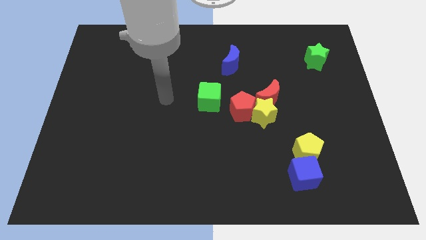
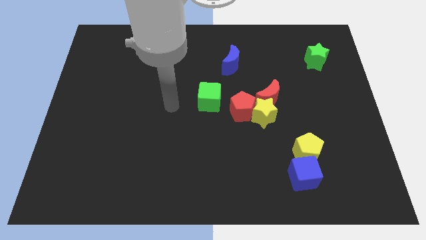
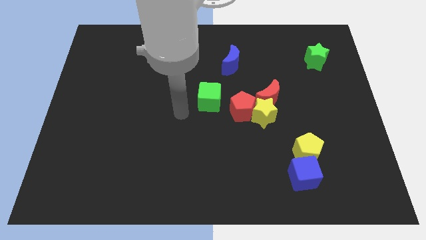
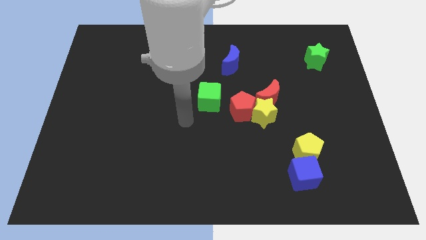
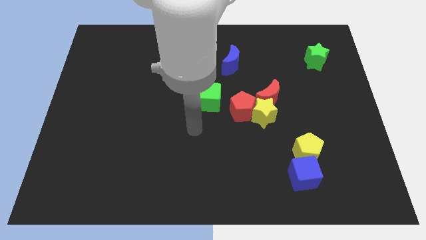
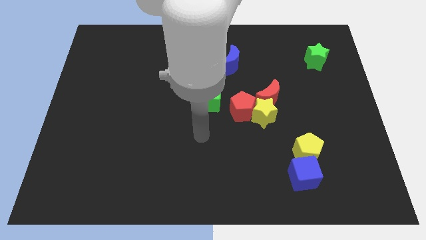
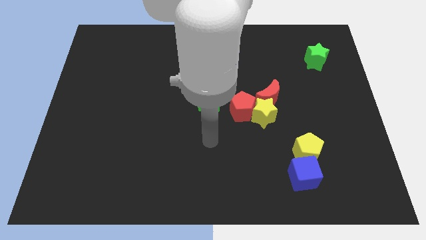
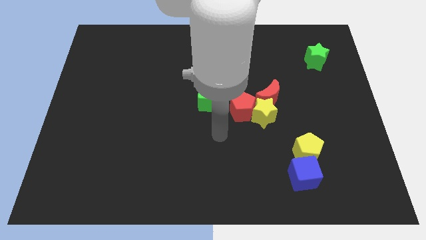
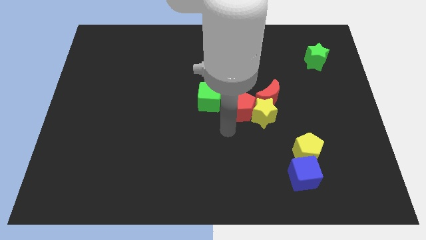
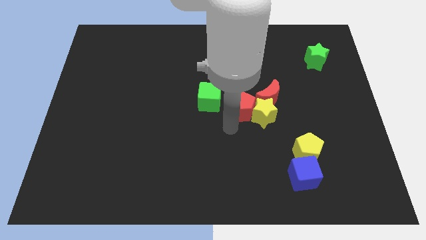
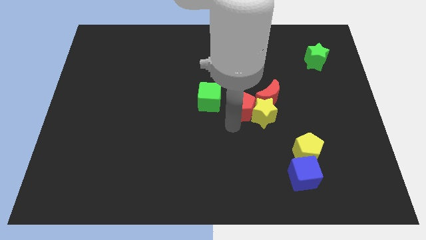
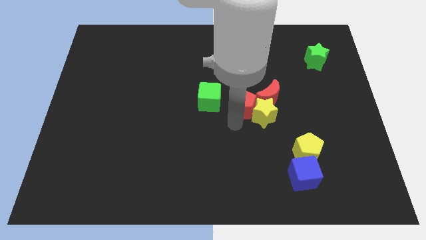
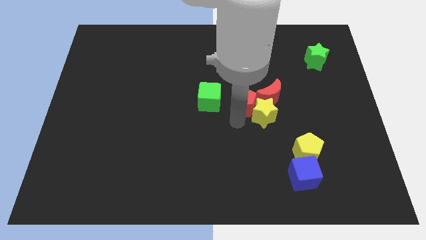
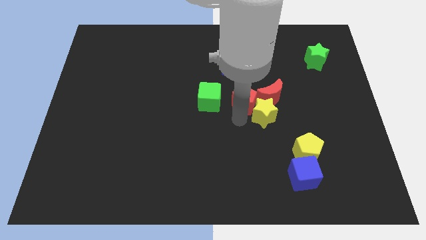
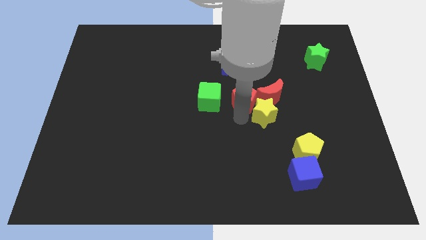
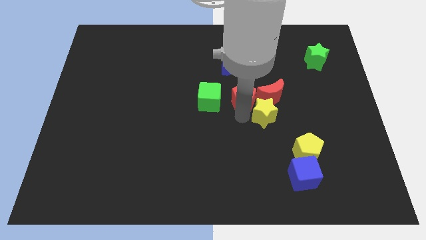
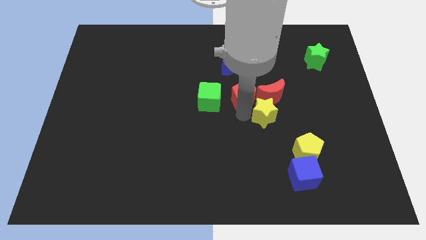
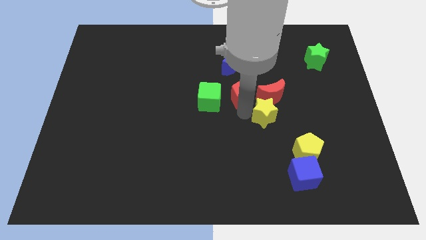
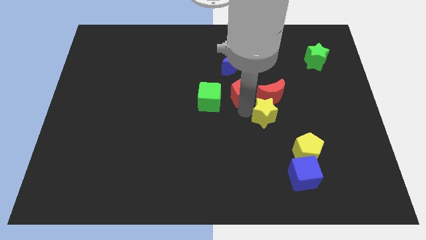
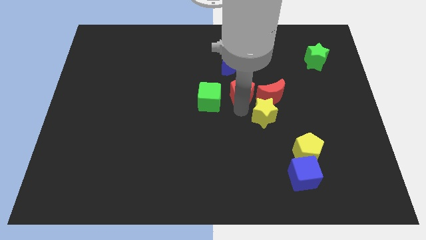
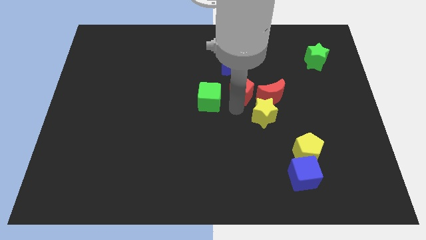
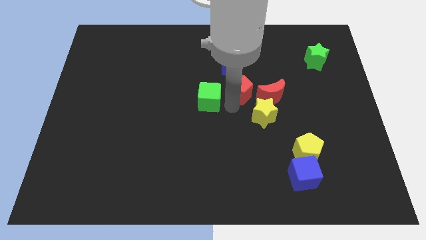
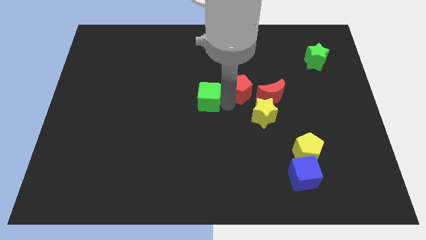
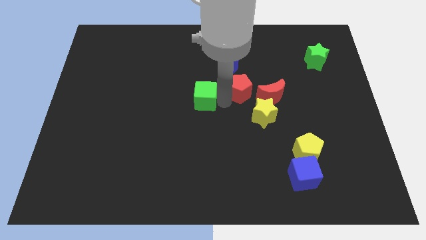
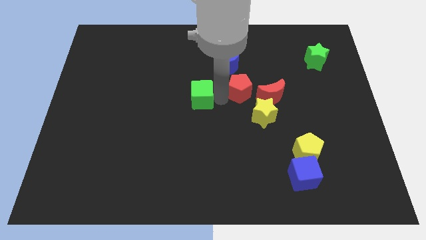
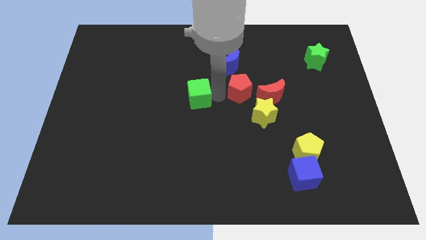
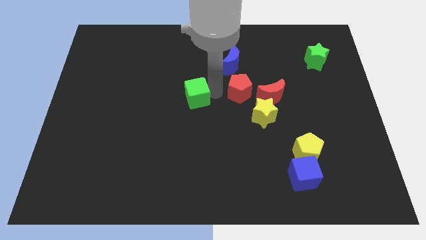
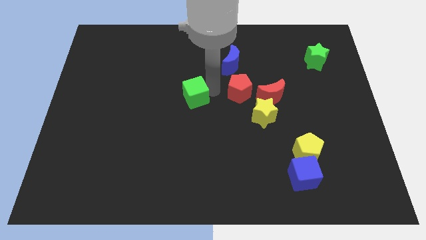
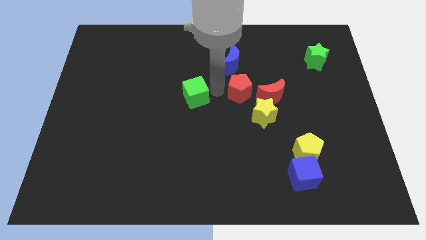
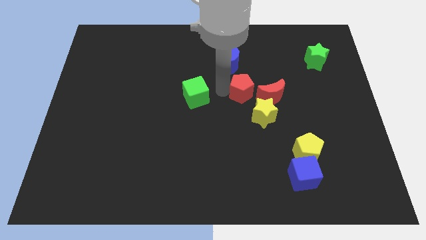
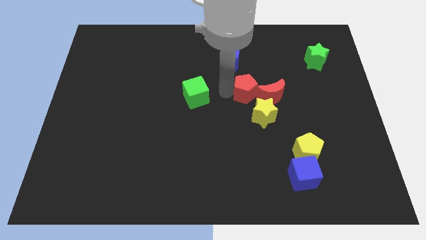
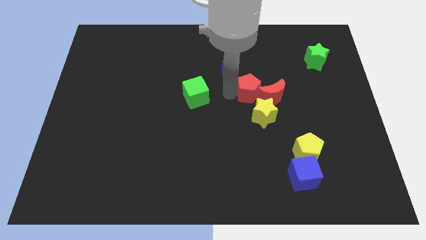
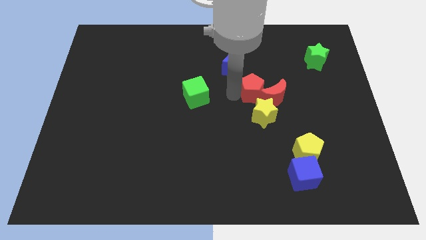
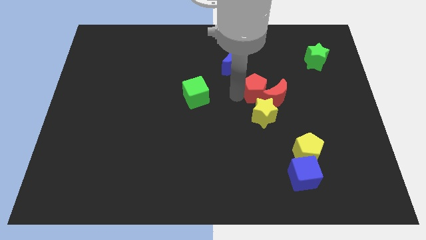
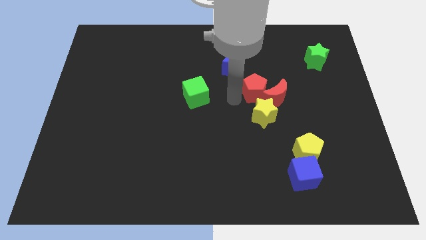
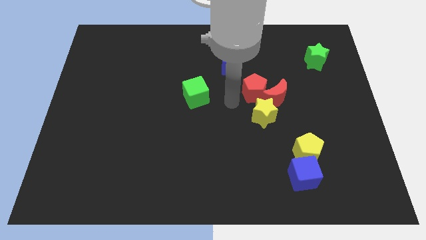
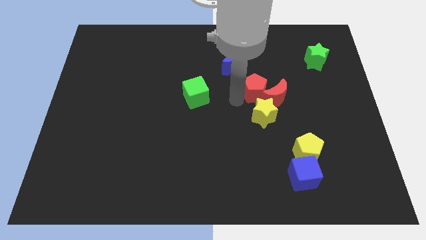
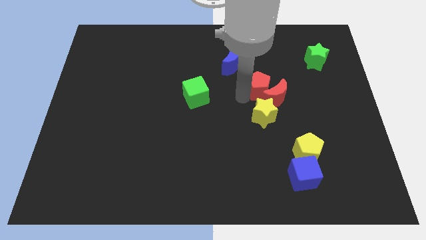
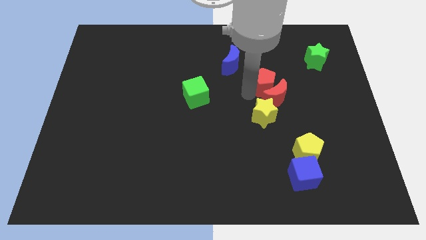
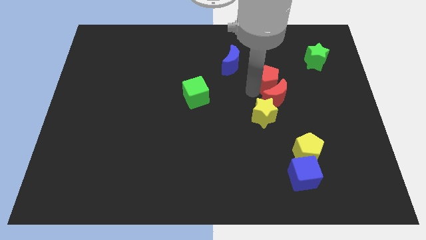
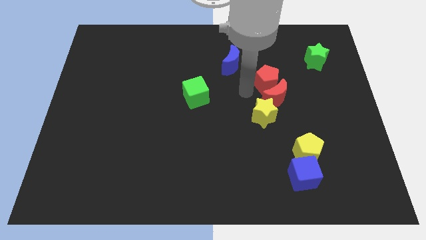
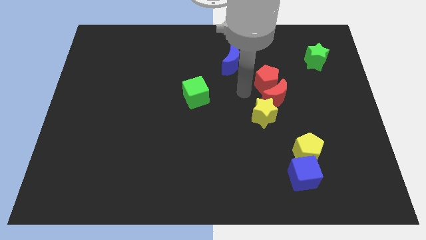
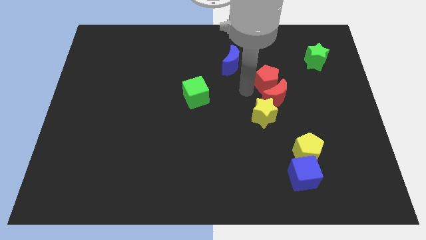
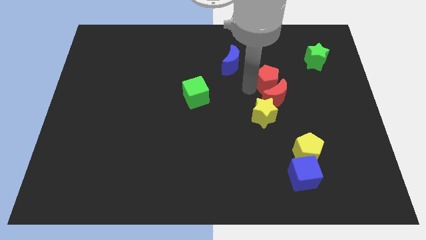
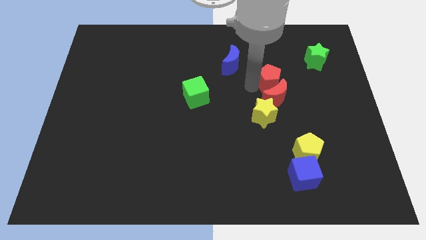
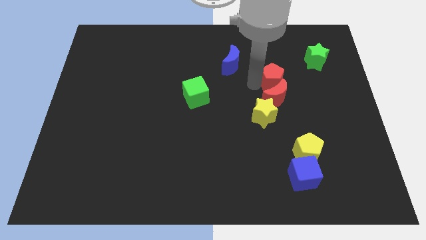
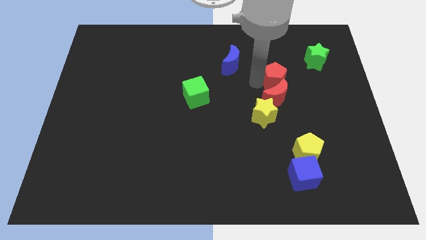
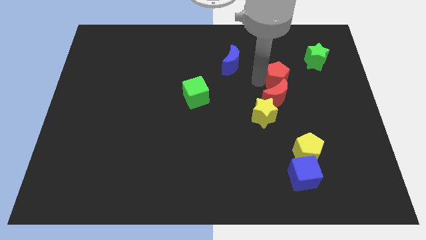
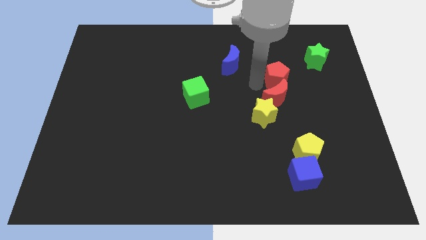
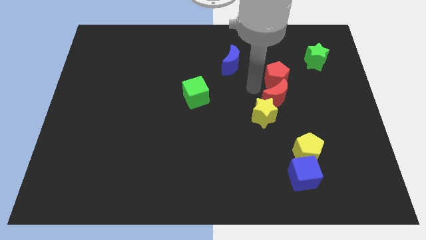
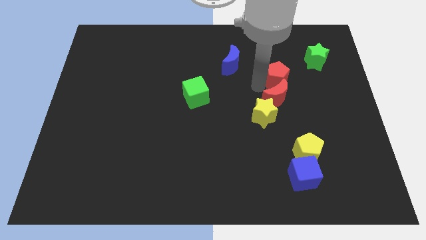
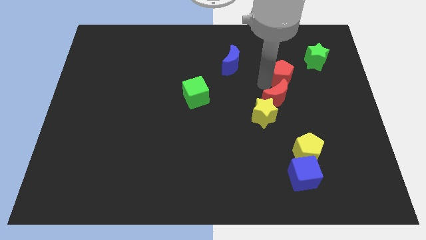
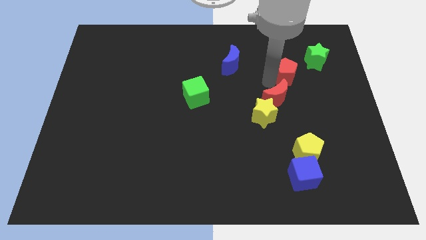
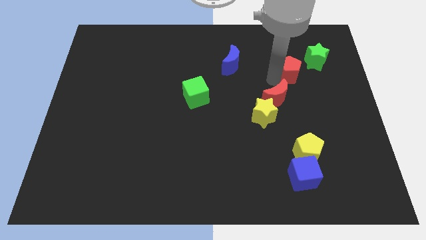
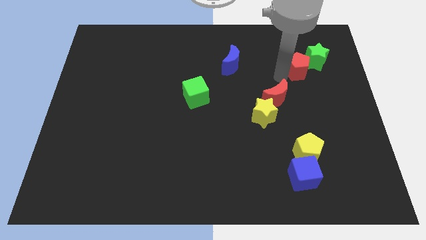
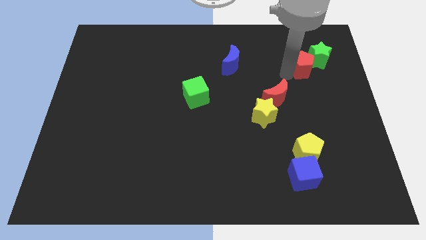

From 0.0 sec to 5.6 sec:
put the red pentagon close to the green star

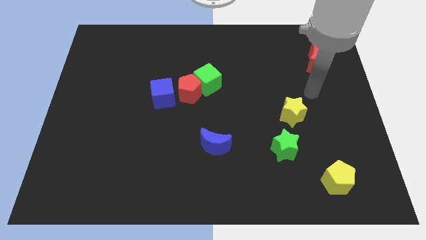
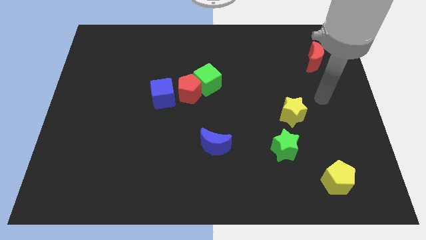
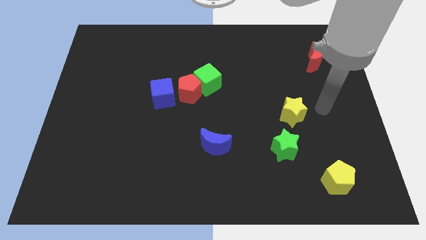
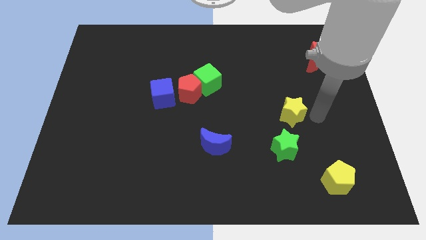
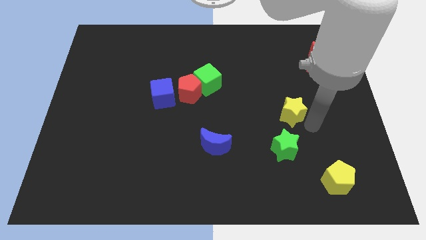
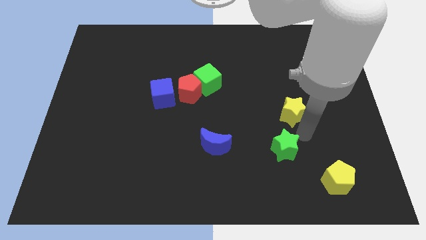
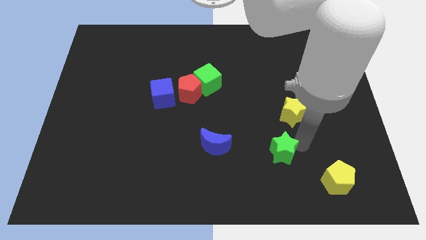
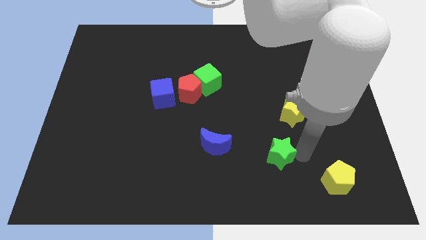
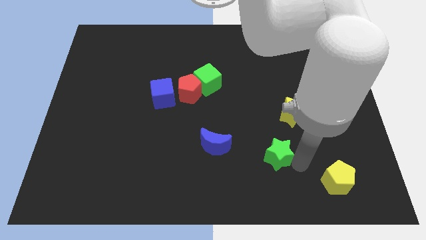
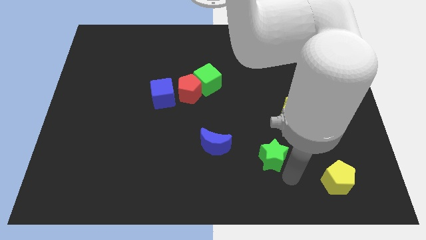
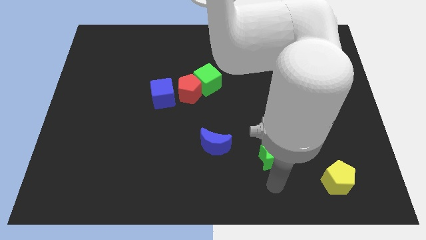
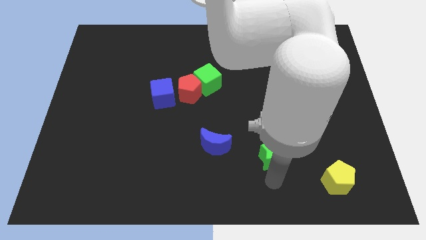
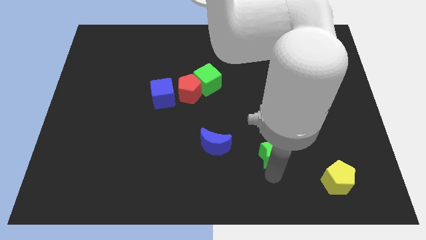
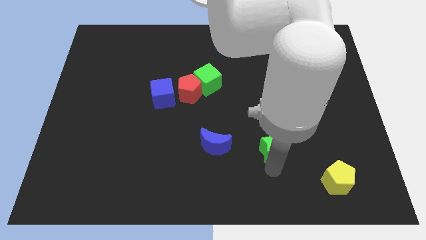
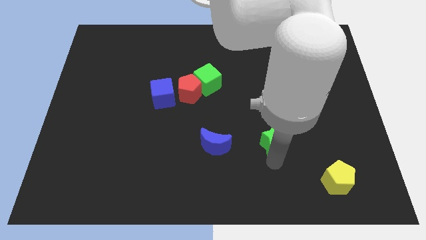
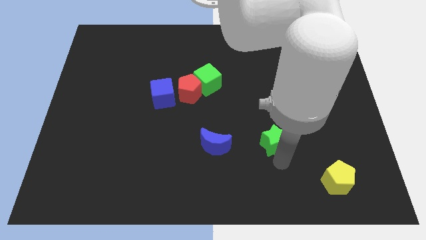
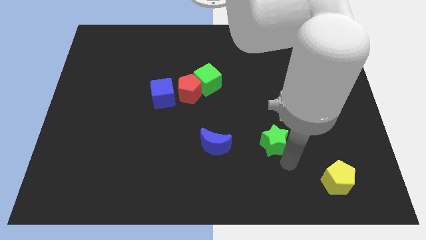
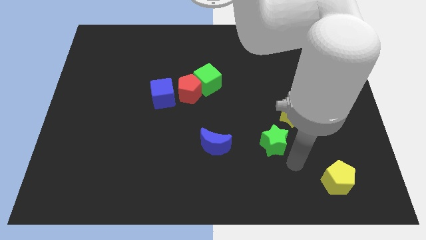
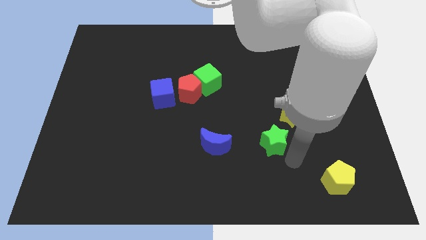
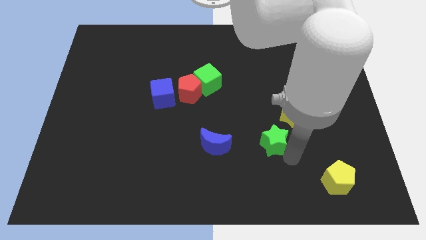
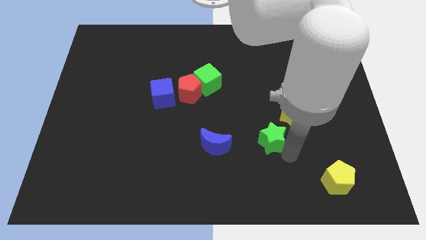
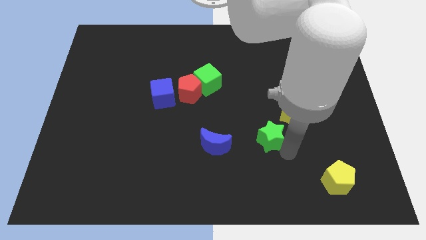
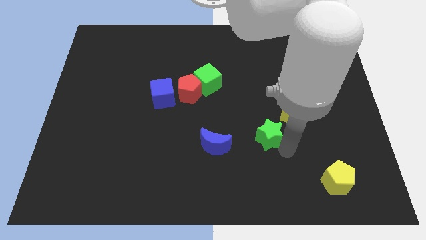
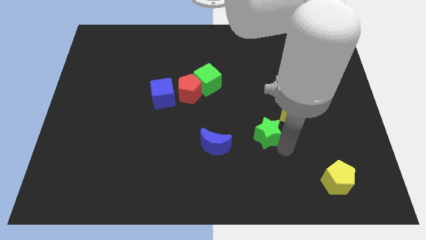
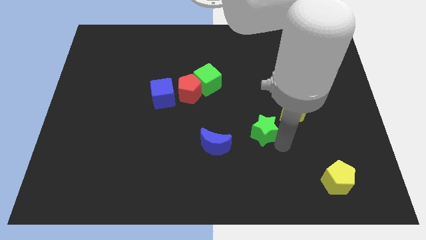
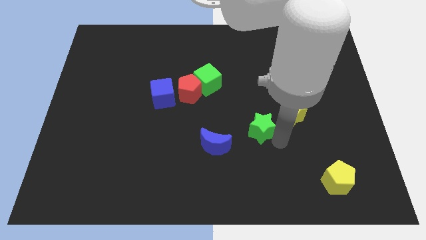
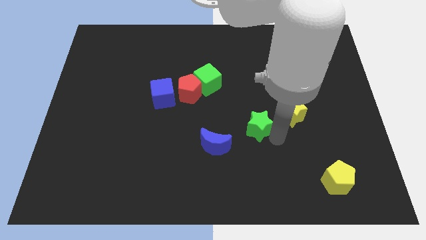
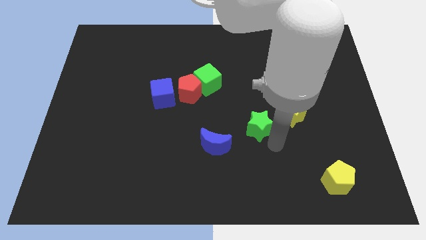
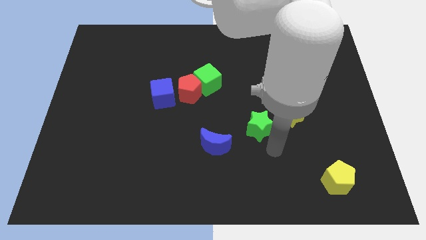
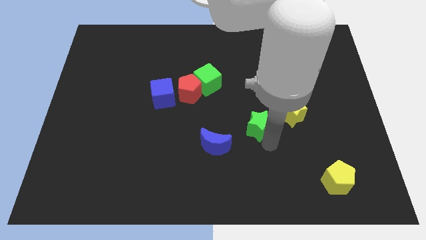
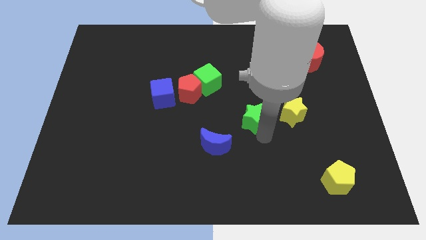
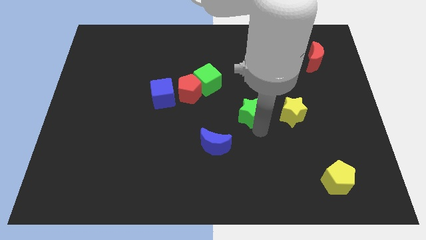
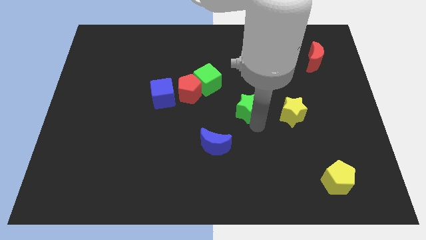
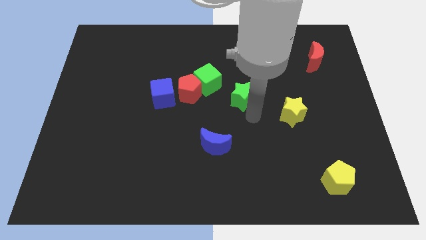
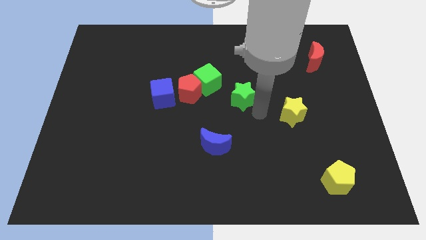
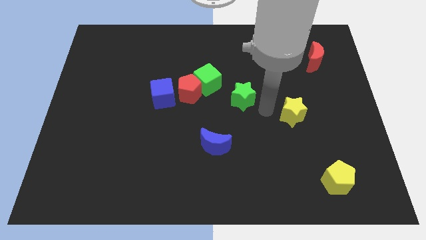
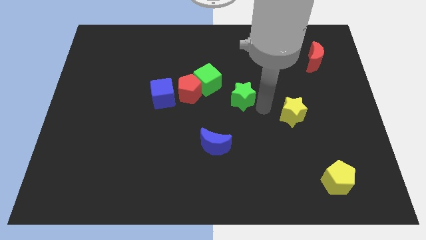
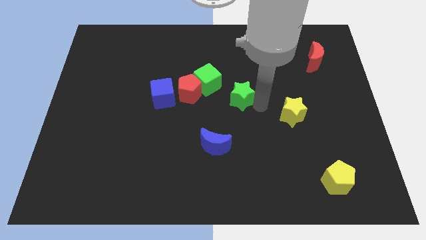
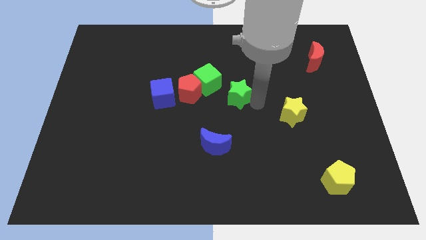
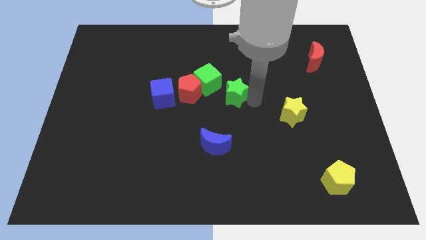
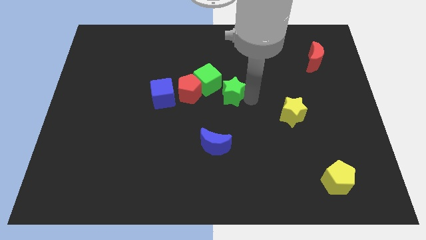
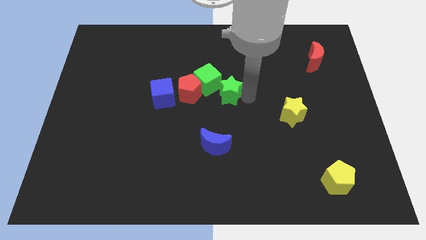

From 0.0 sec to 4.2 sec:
slide the green star close to the green cube
